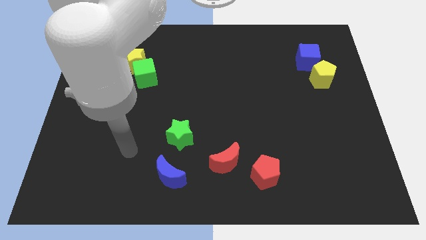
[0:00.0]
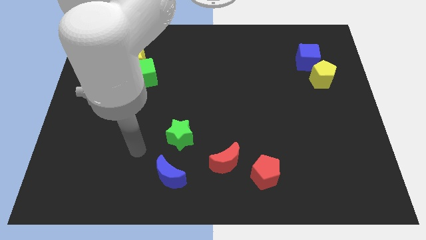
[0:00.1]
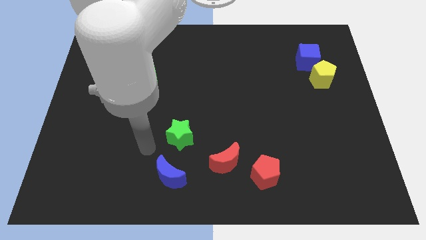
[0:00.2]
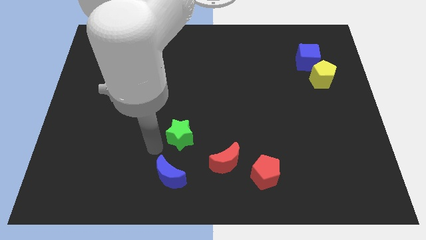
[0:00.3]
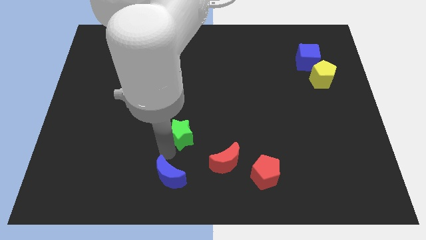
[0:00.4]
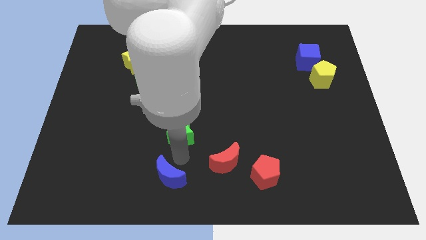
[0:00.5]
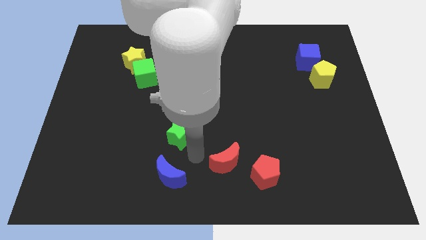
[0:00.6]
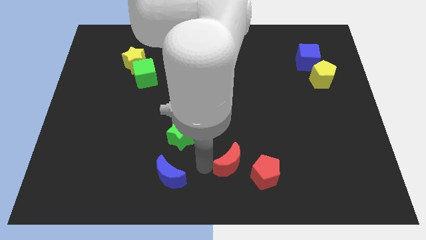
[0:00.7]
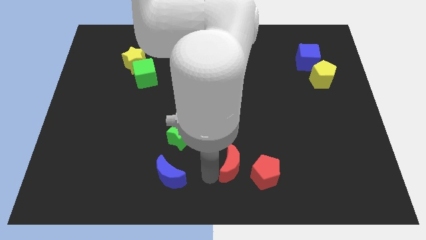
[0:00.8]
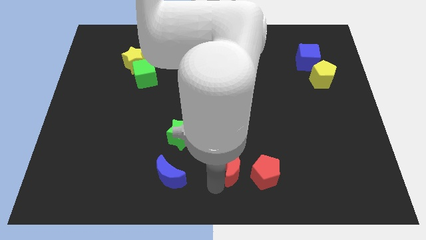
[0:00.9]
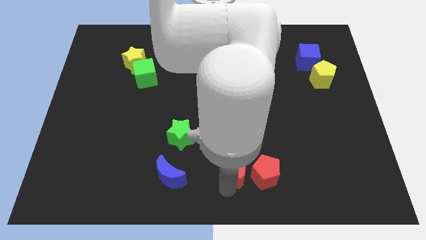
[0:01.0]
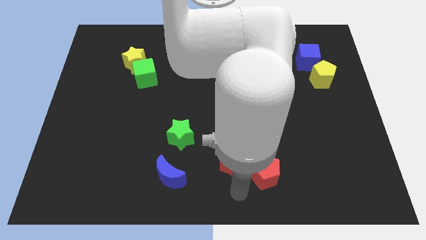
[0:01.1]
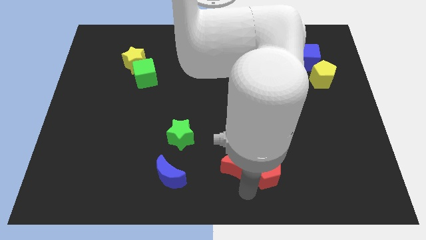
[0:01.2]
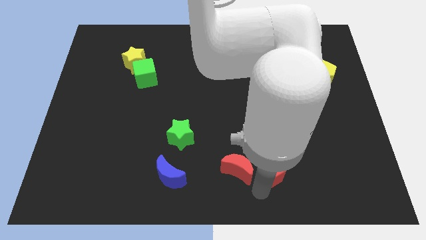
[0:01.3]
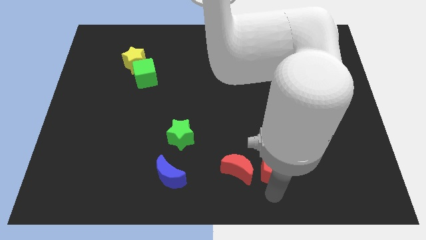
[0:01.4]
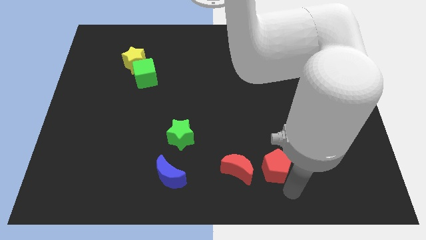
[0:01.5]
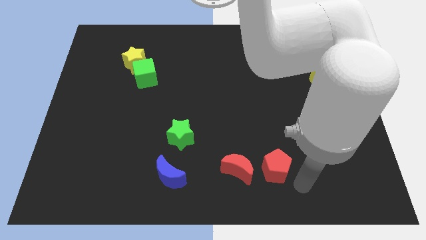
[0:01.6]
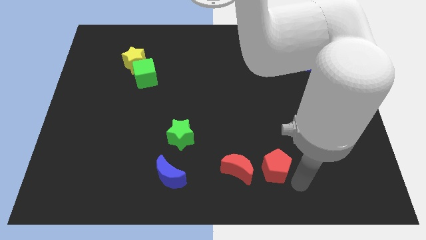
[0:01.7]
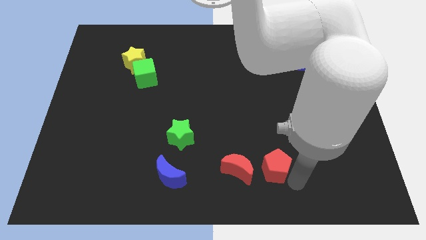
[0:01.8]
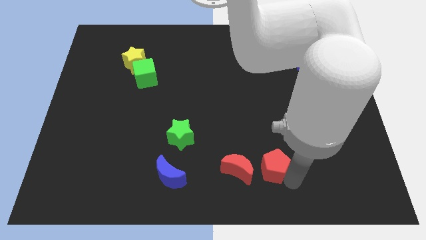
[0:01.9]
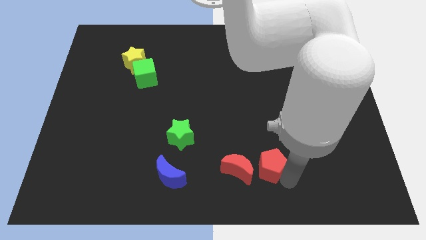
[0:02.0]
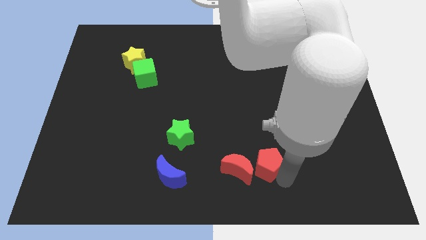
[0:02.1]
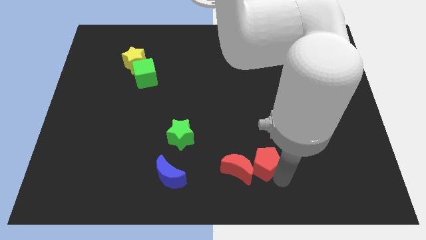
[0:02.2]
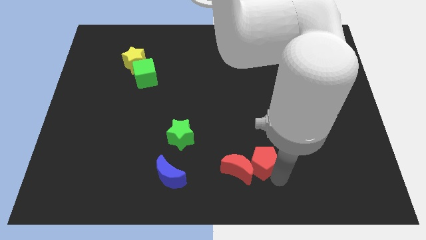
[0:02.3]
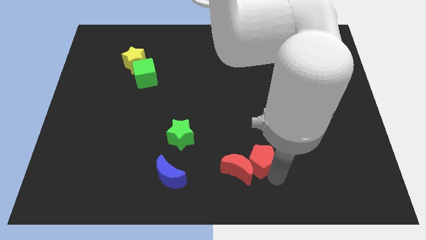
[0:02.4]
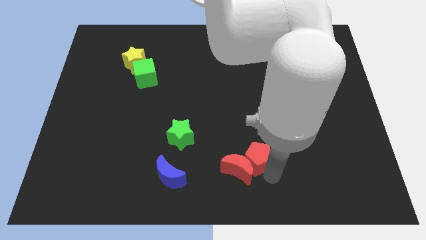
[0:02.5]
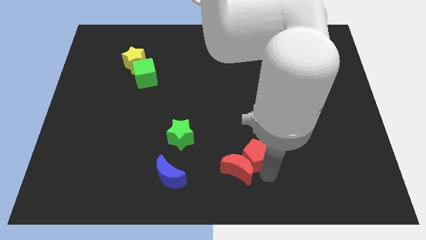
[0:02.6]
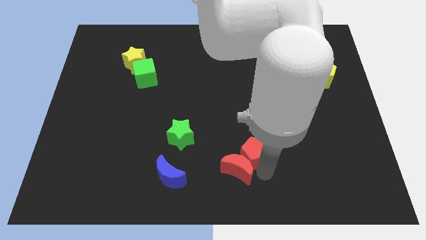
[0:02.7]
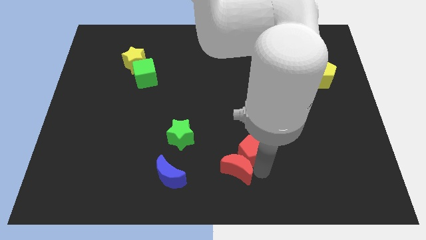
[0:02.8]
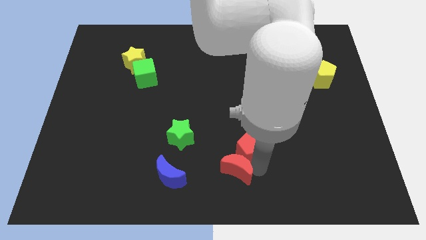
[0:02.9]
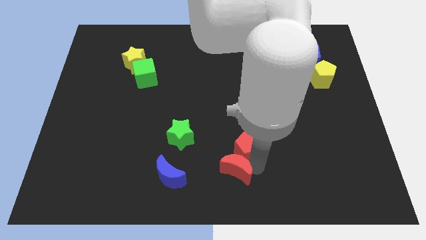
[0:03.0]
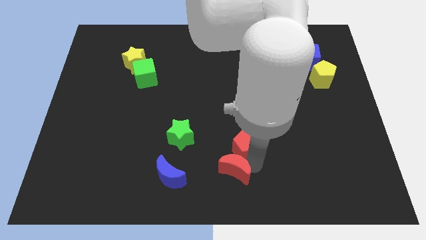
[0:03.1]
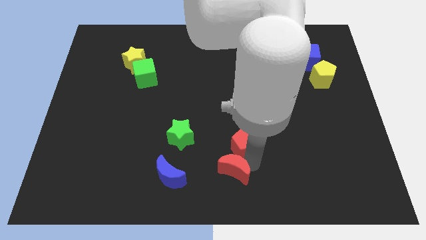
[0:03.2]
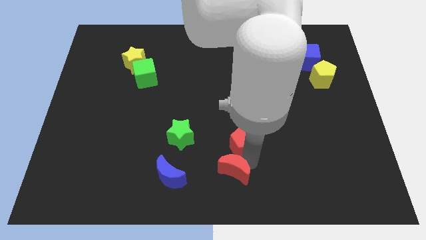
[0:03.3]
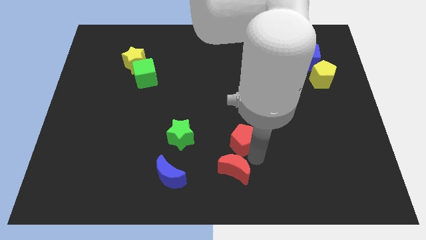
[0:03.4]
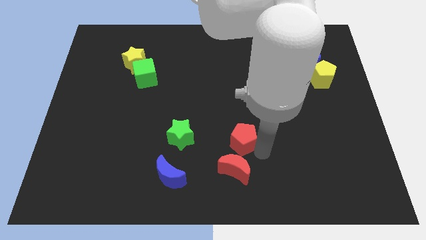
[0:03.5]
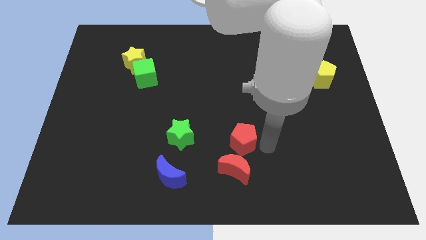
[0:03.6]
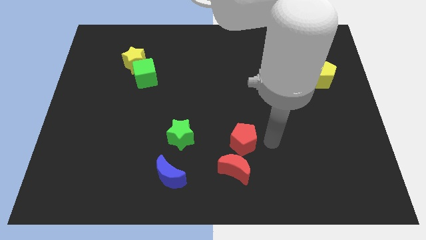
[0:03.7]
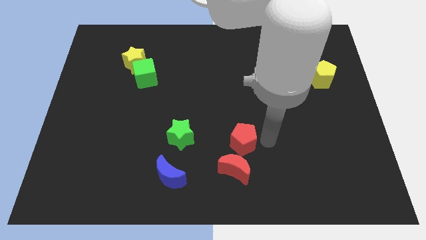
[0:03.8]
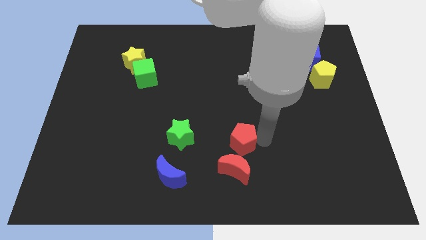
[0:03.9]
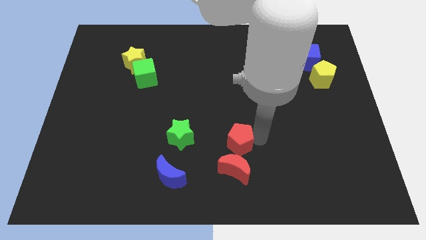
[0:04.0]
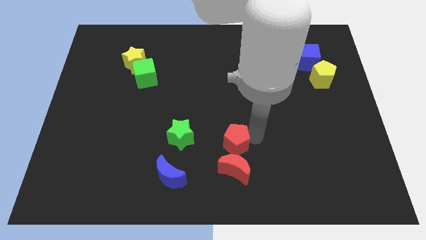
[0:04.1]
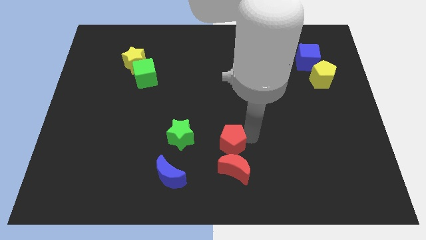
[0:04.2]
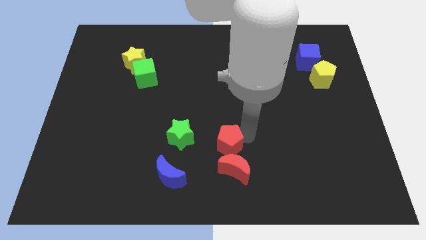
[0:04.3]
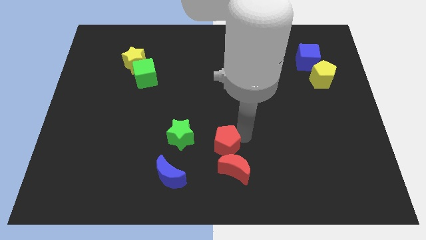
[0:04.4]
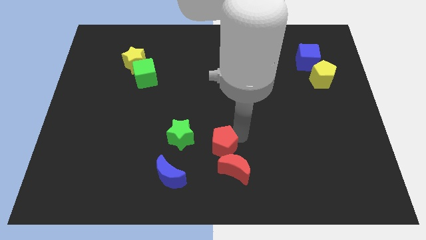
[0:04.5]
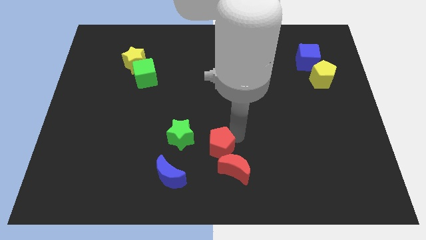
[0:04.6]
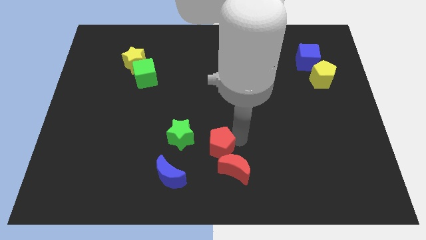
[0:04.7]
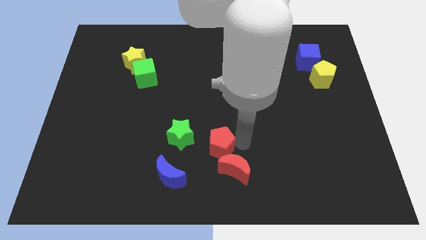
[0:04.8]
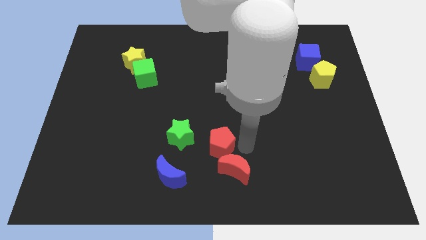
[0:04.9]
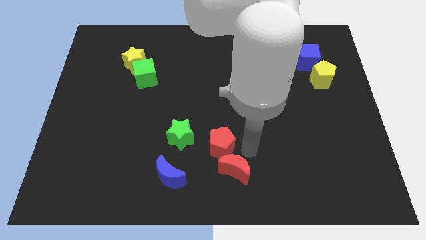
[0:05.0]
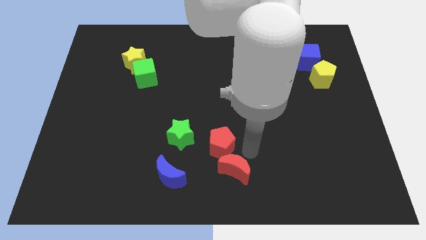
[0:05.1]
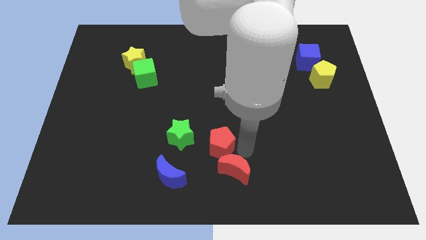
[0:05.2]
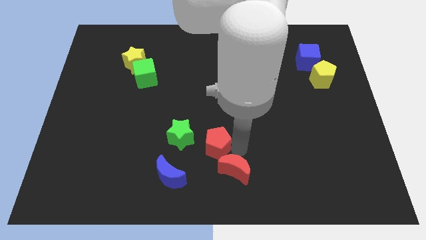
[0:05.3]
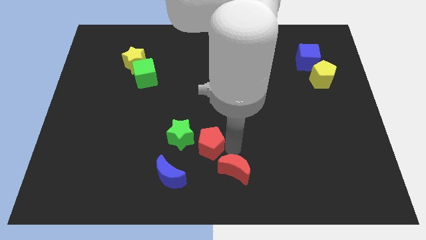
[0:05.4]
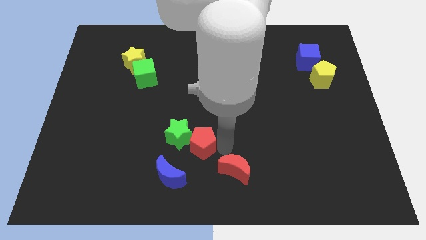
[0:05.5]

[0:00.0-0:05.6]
move the red pentagon next to the green star

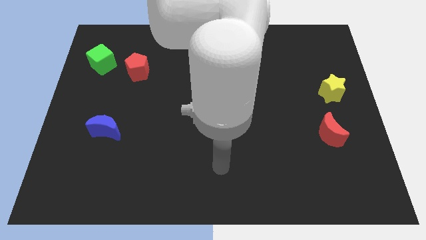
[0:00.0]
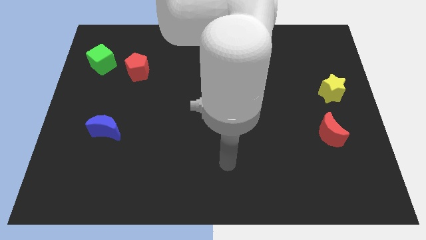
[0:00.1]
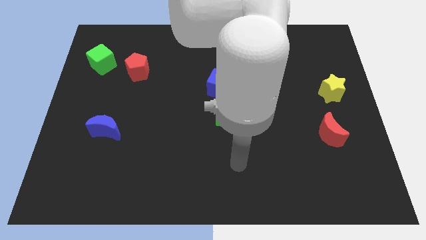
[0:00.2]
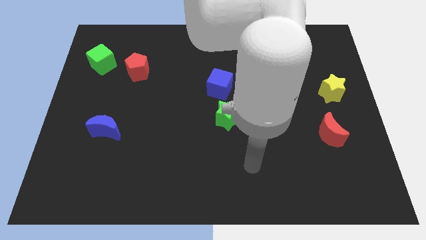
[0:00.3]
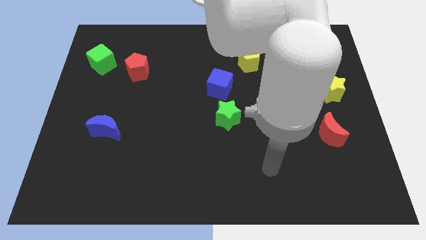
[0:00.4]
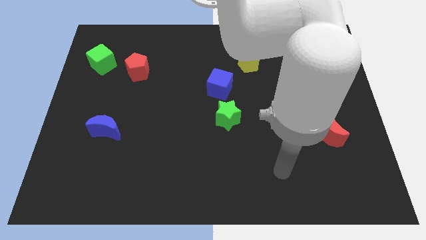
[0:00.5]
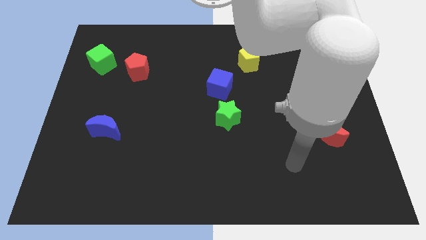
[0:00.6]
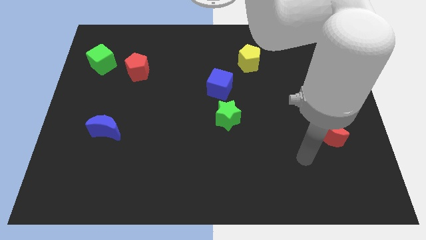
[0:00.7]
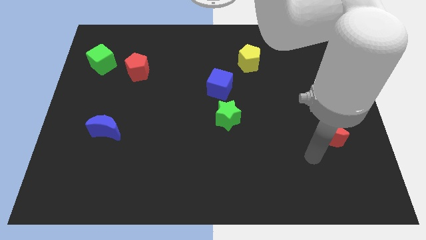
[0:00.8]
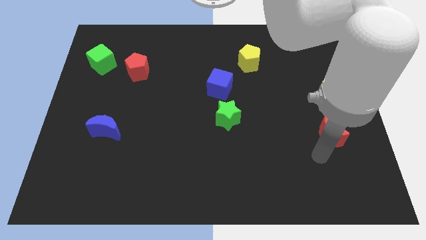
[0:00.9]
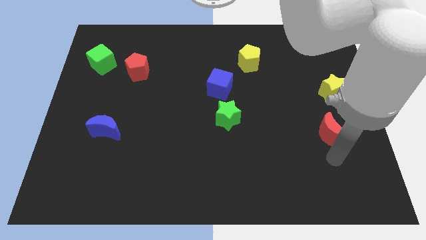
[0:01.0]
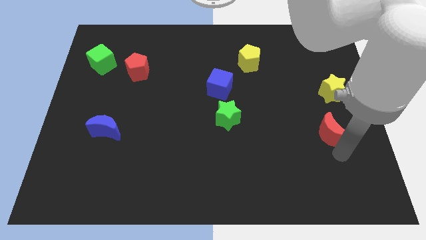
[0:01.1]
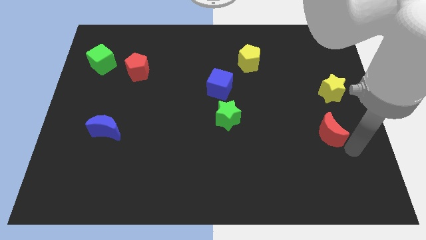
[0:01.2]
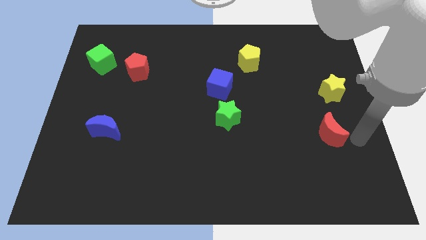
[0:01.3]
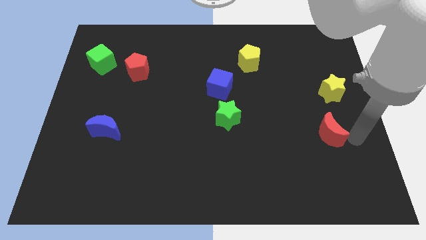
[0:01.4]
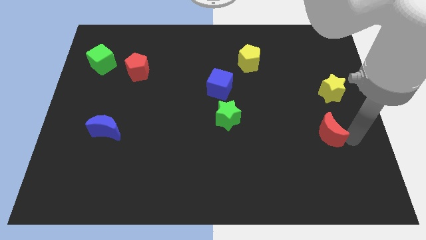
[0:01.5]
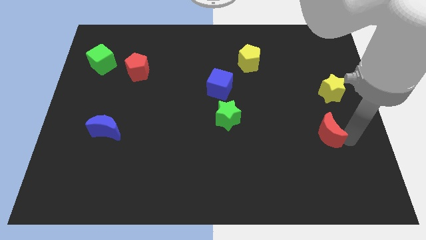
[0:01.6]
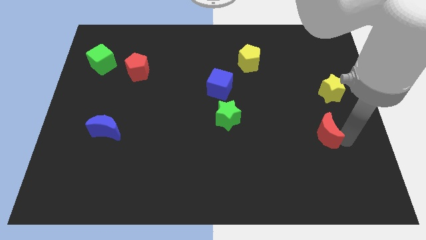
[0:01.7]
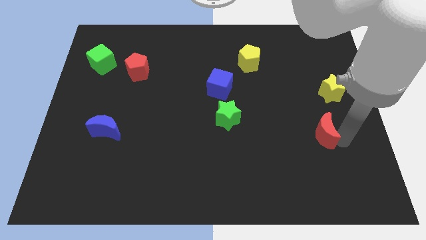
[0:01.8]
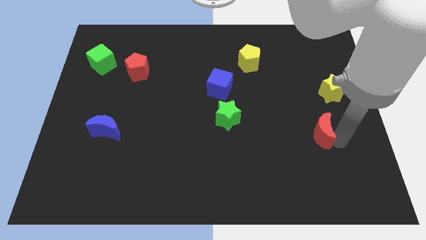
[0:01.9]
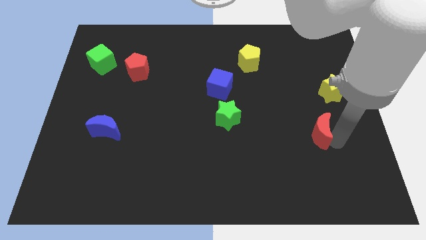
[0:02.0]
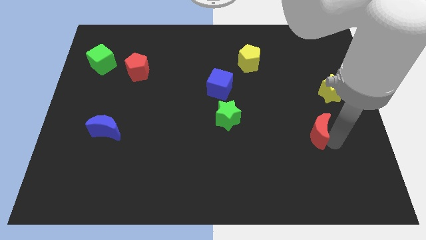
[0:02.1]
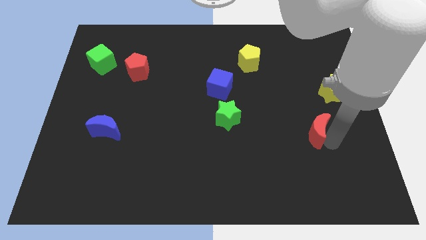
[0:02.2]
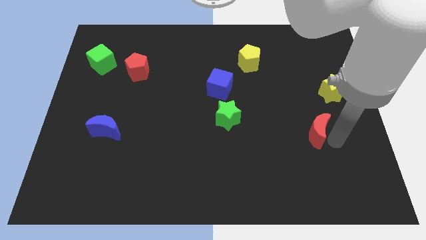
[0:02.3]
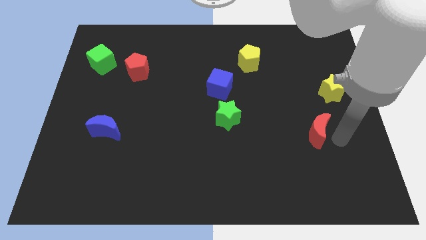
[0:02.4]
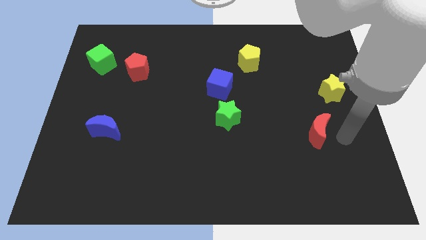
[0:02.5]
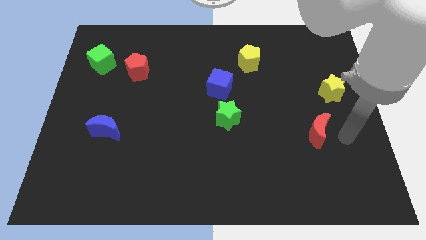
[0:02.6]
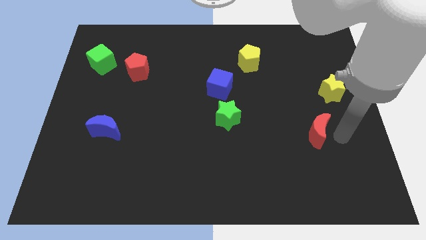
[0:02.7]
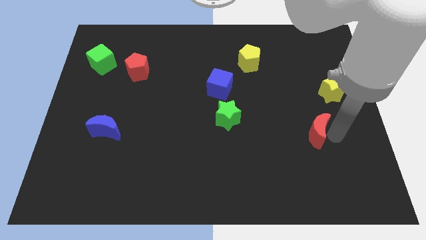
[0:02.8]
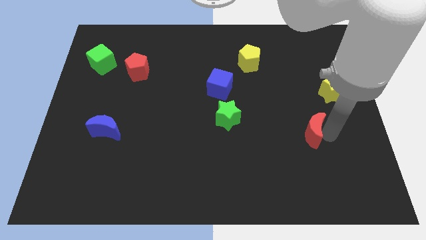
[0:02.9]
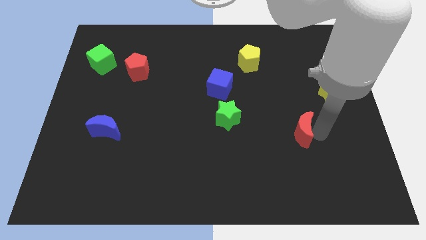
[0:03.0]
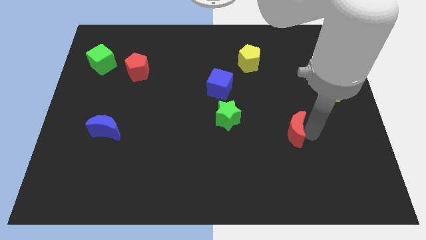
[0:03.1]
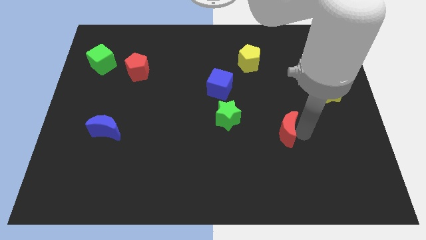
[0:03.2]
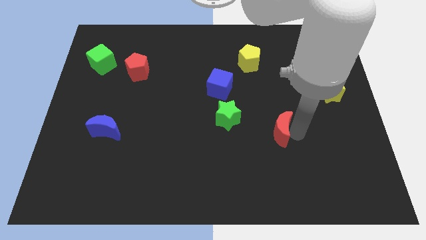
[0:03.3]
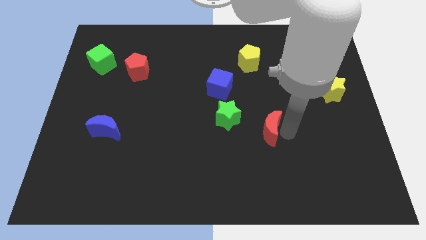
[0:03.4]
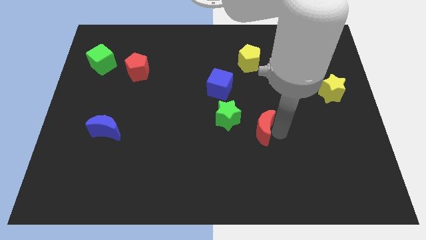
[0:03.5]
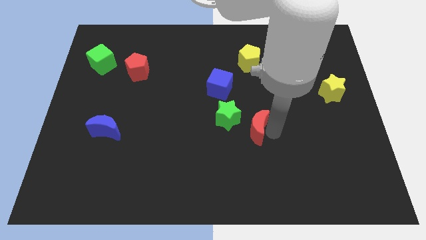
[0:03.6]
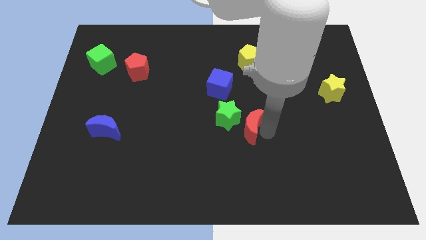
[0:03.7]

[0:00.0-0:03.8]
slide the red moon to the green star
